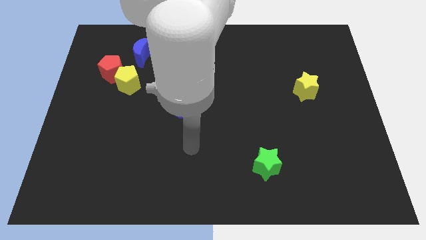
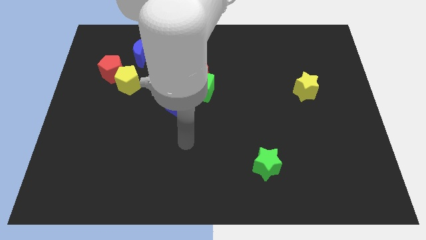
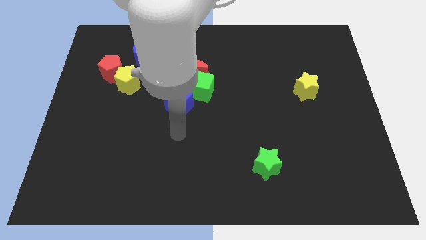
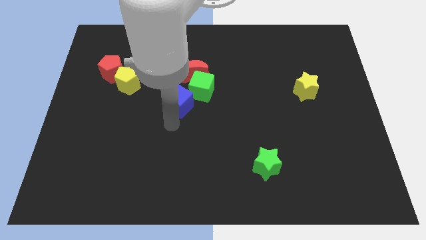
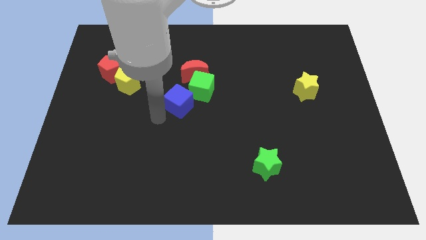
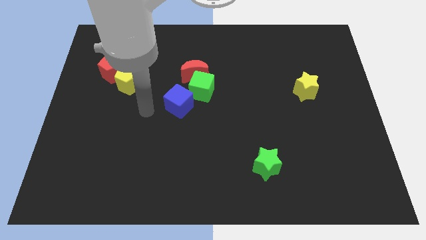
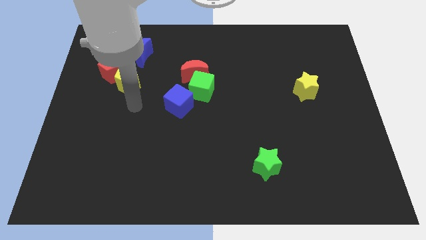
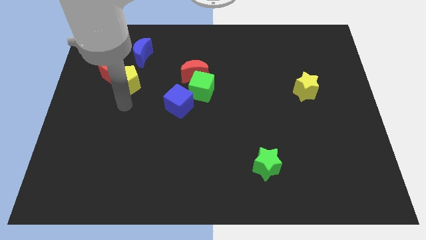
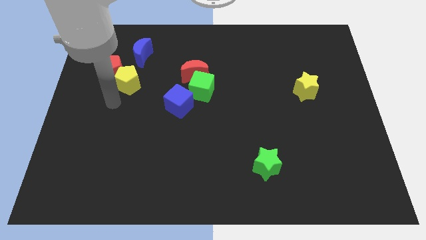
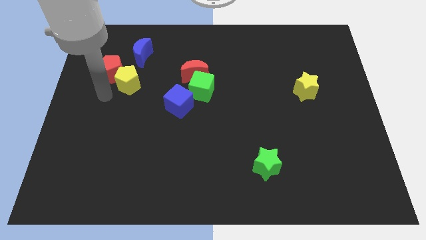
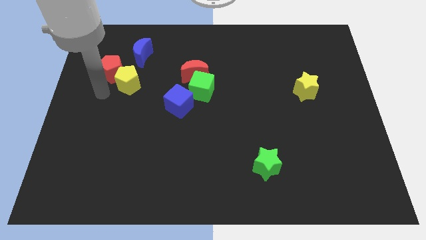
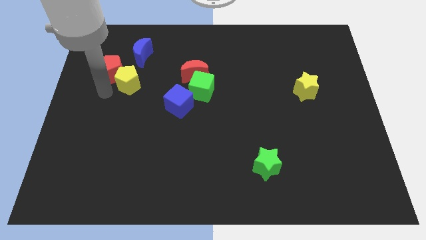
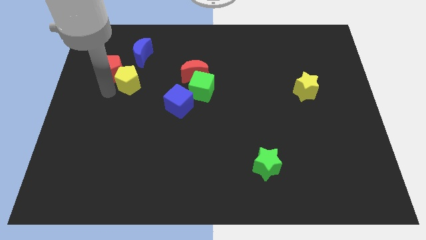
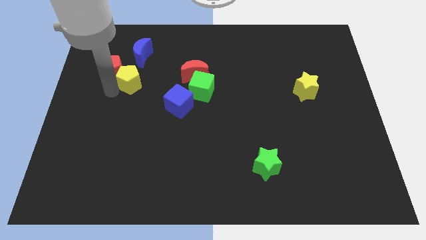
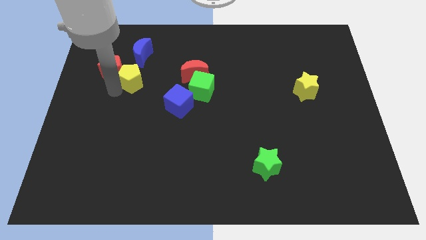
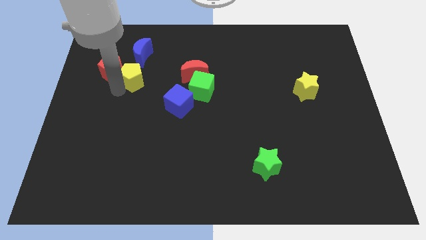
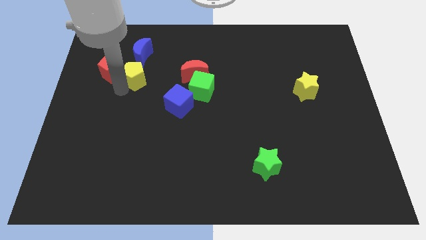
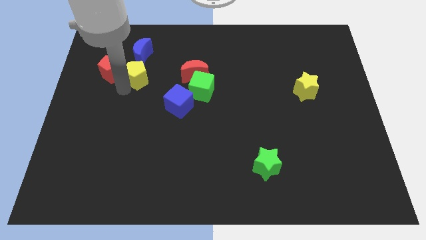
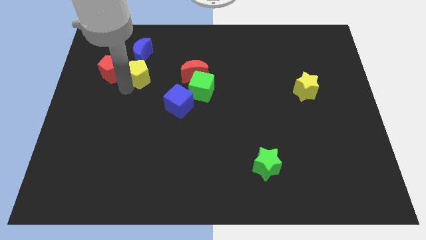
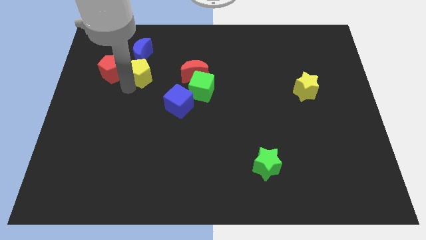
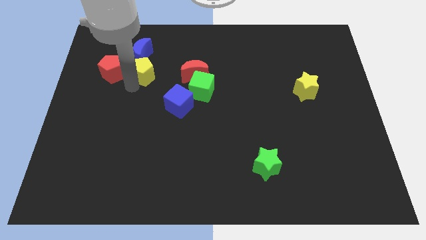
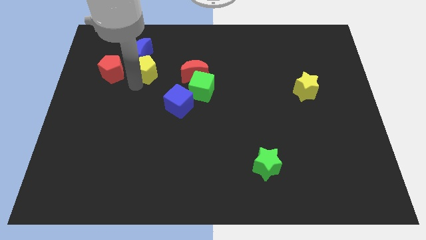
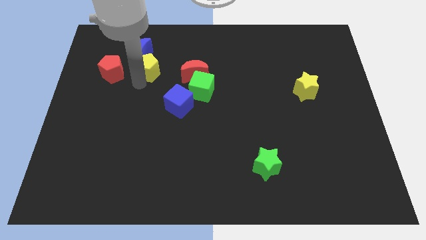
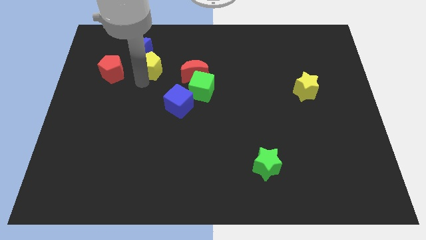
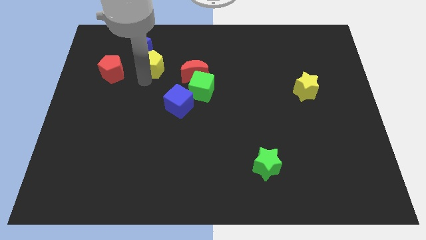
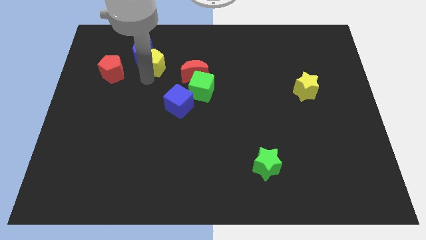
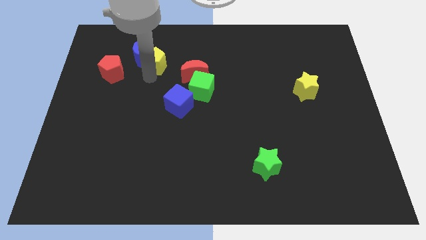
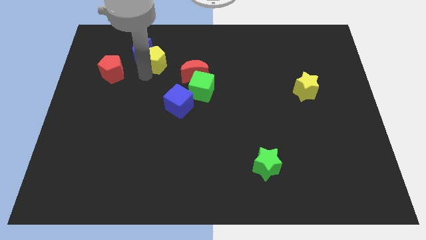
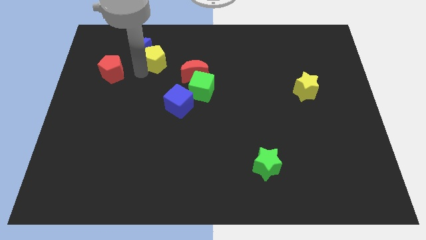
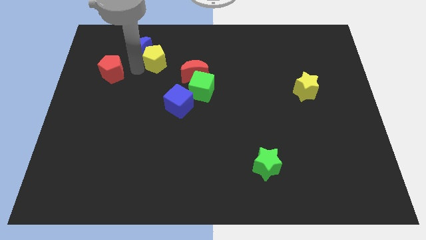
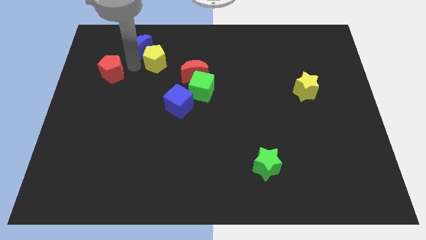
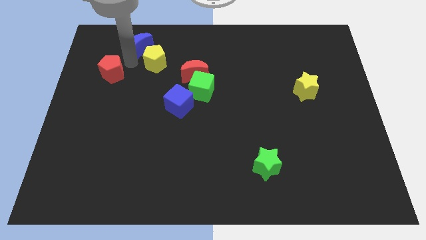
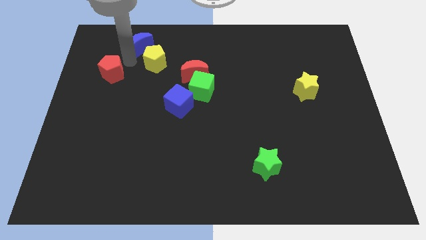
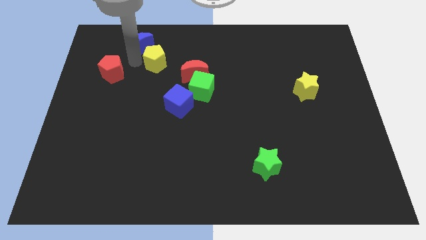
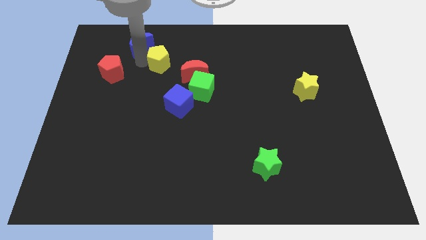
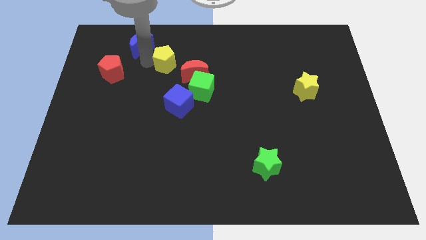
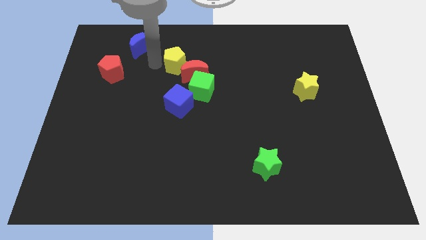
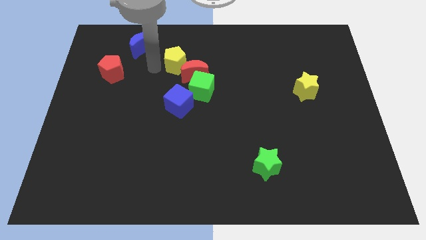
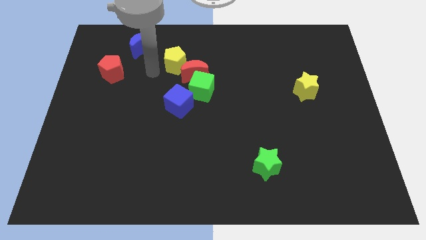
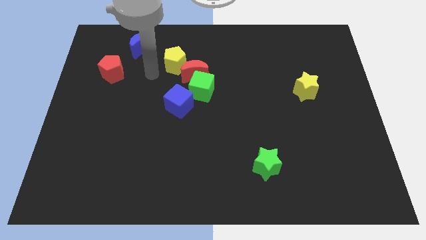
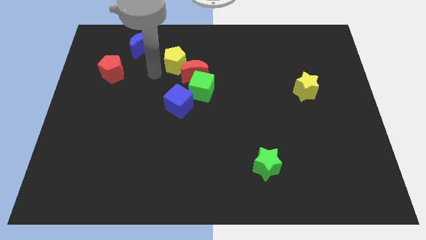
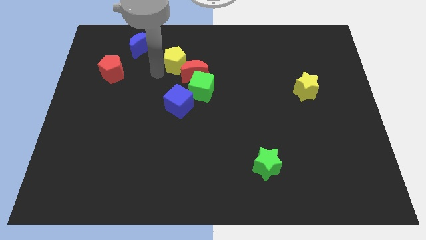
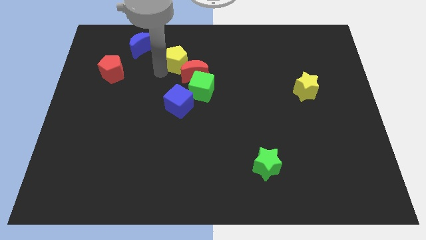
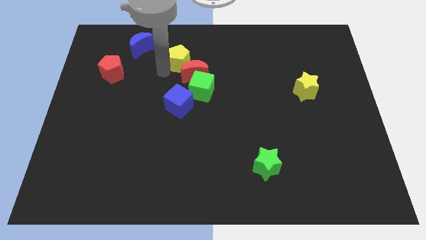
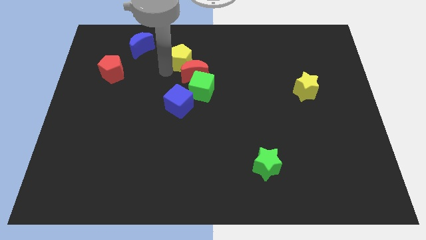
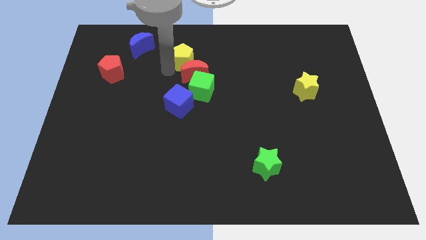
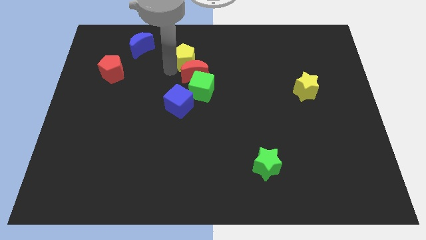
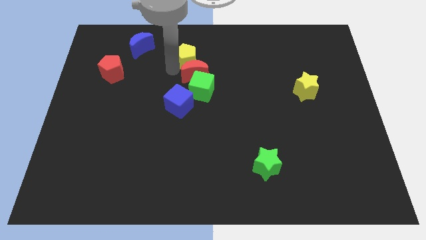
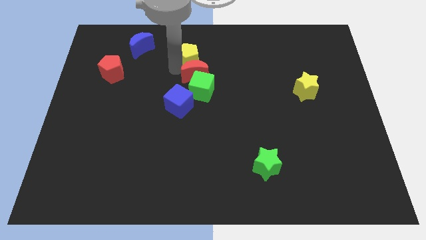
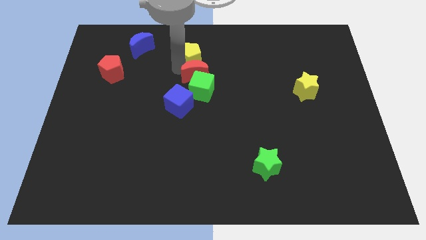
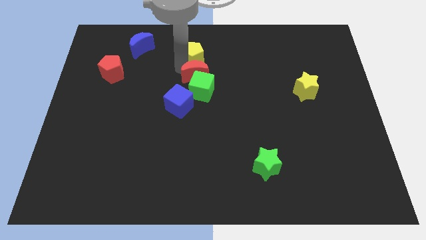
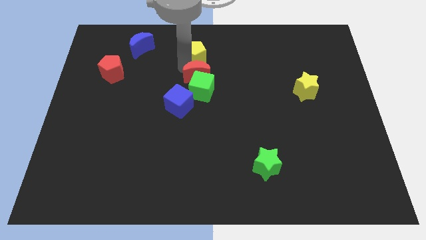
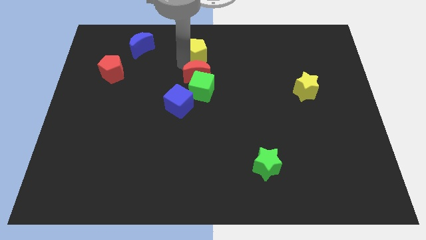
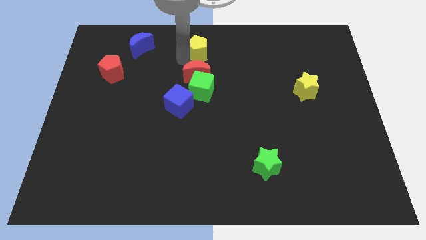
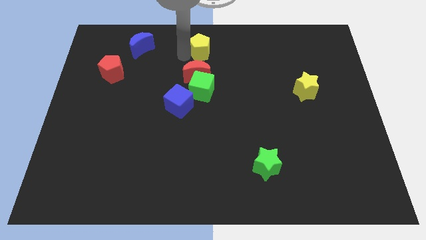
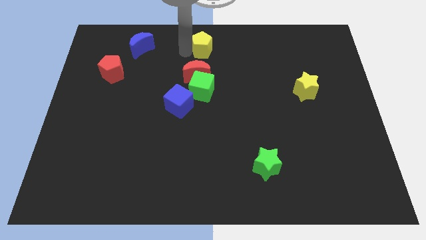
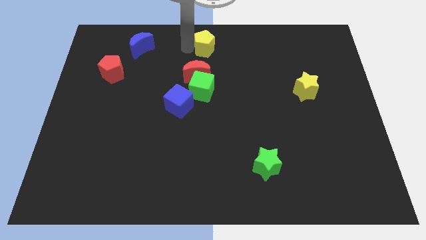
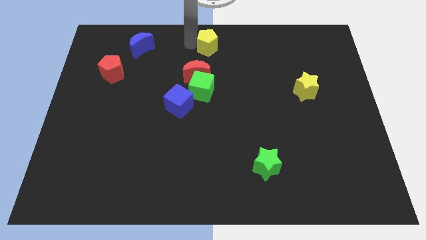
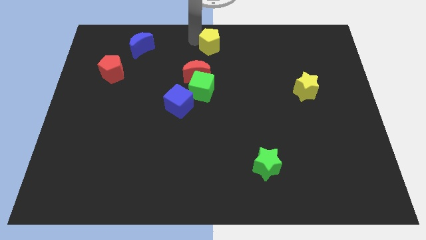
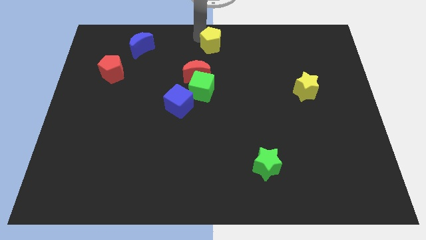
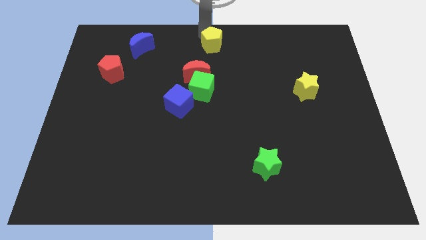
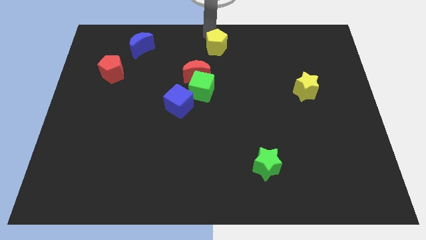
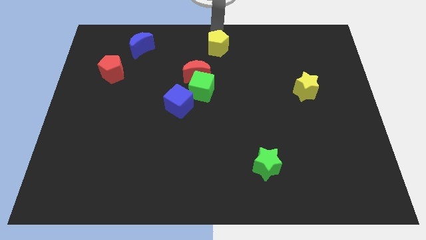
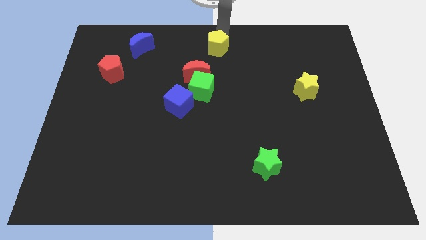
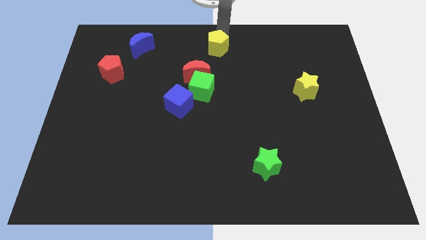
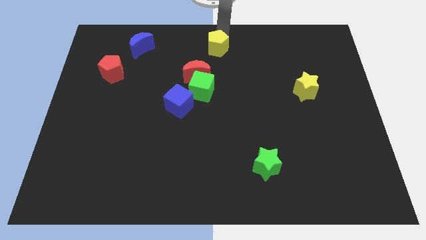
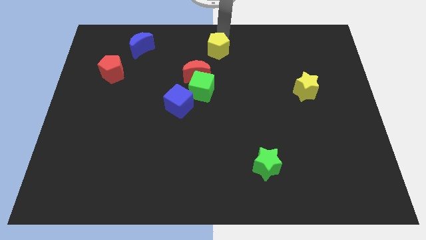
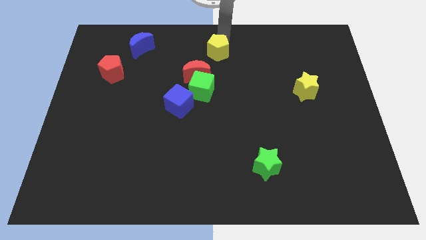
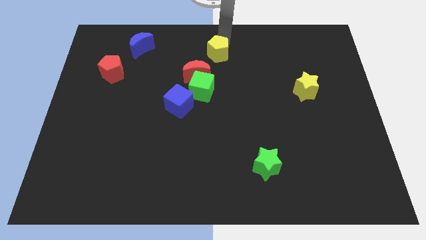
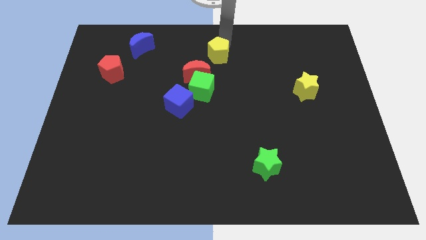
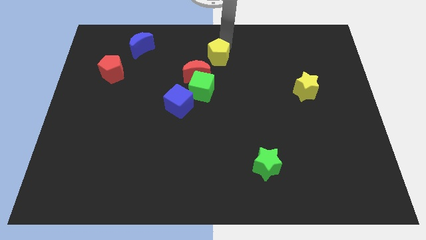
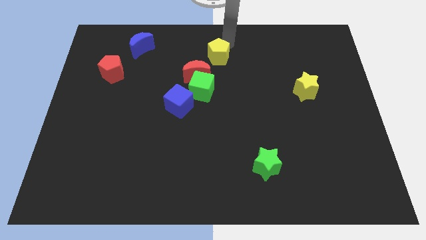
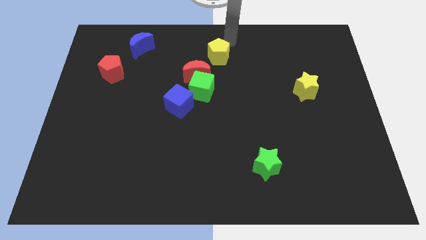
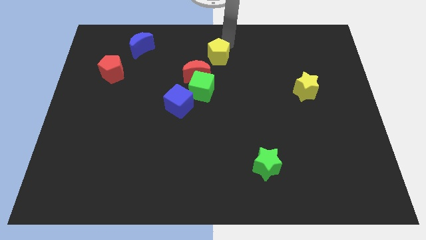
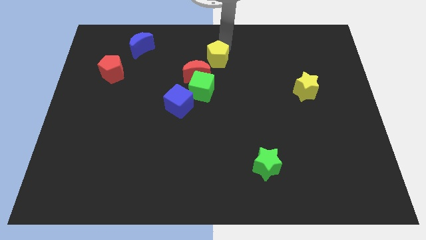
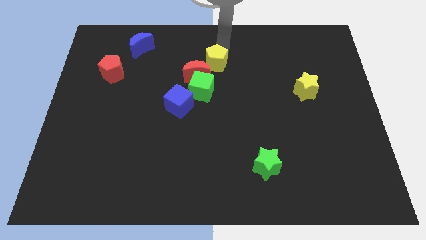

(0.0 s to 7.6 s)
move the yellow pentagon to the right

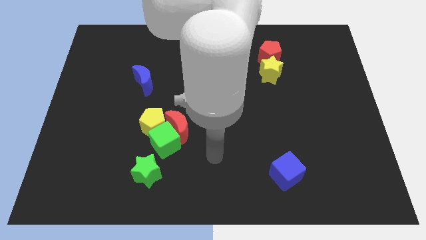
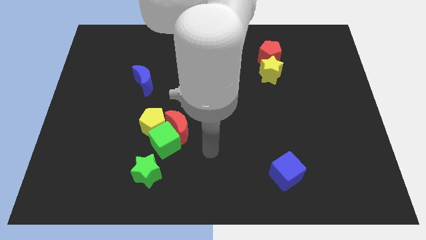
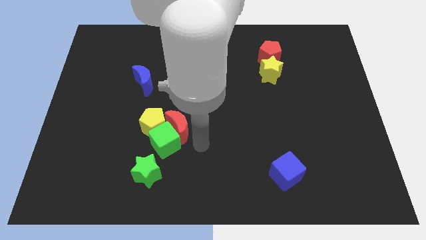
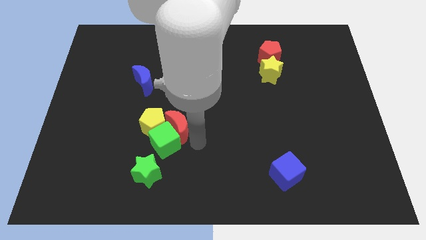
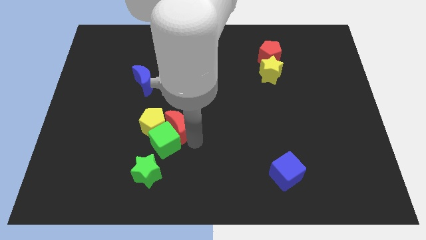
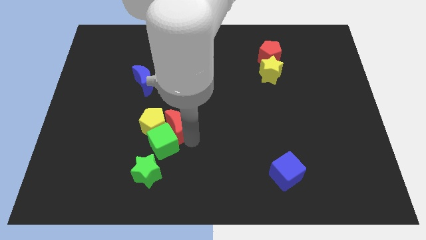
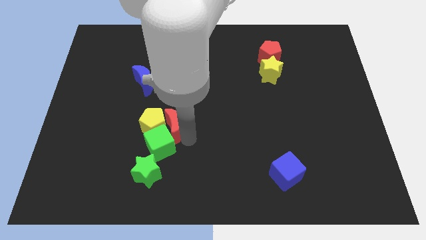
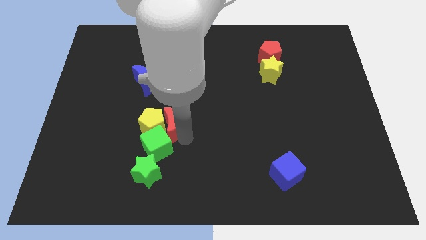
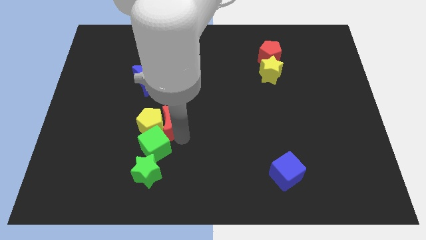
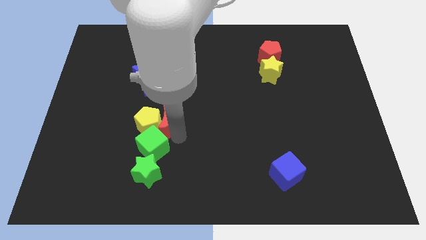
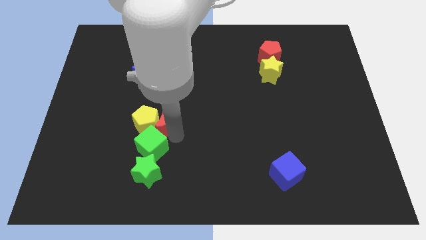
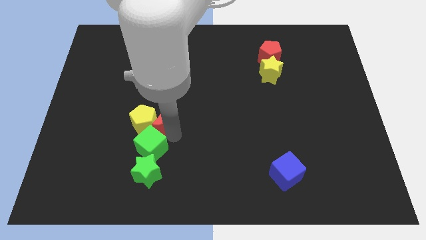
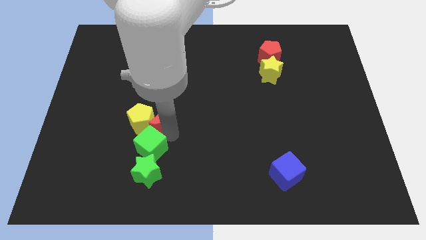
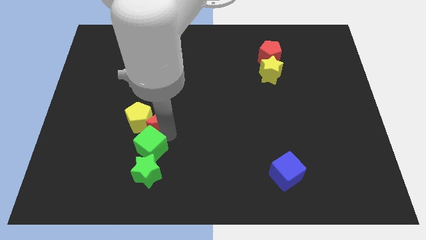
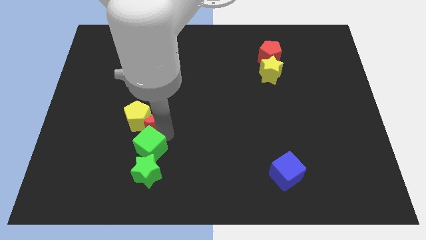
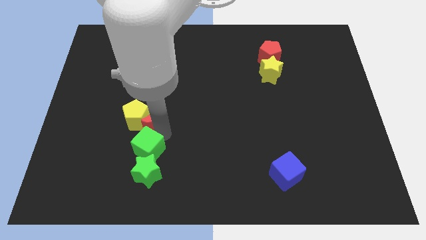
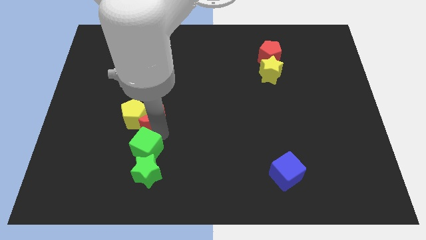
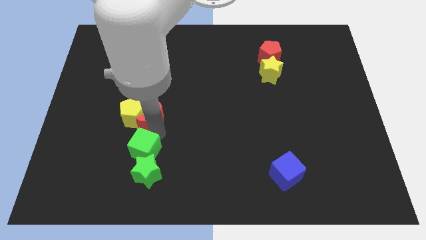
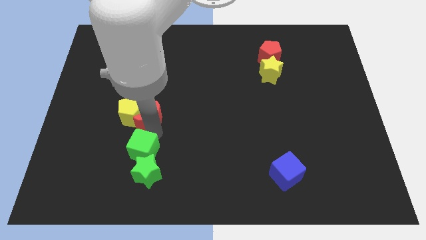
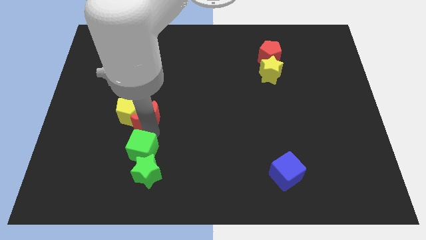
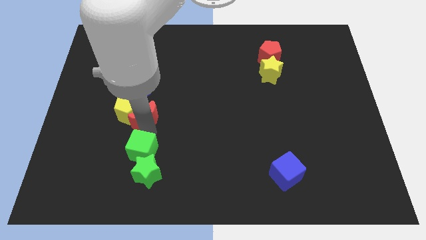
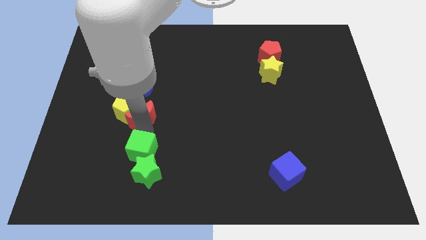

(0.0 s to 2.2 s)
slide the red moon a little bit upwards and then to the left
